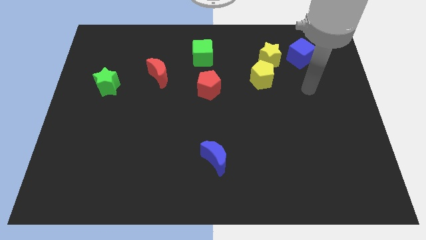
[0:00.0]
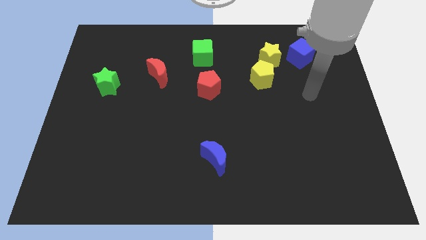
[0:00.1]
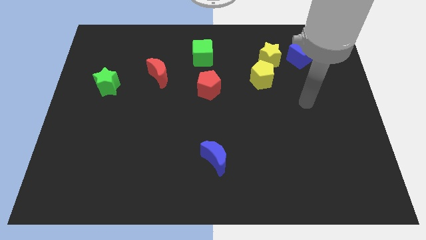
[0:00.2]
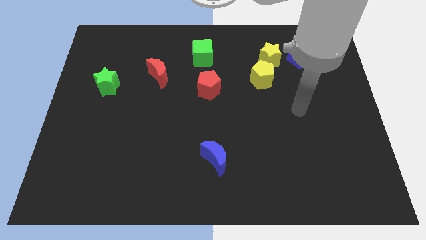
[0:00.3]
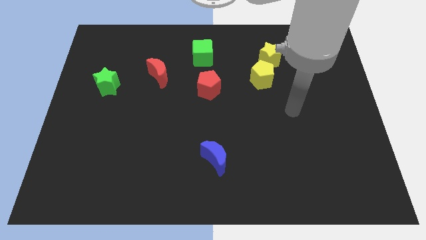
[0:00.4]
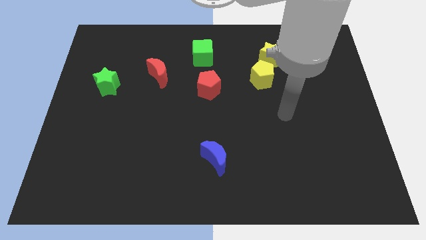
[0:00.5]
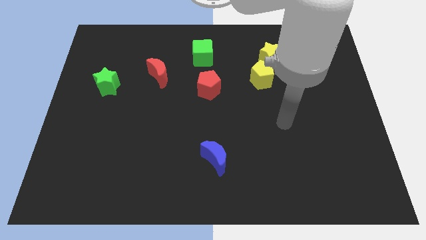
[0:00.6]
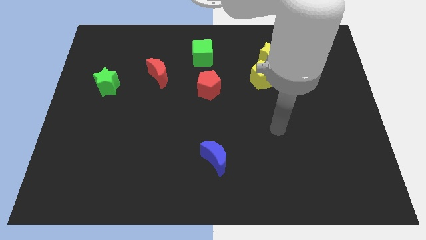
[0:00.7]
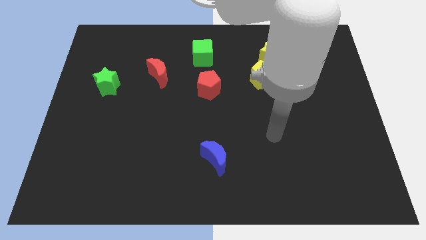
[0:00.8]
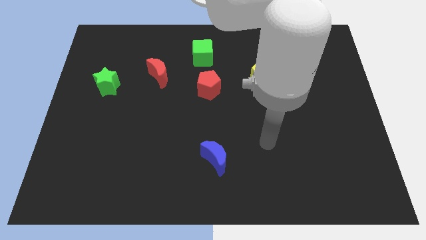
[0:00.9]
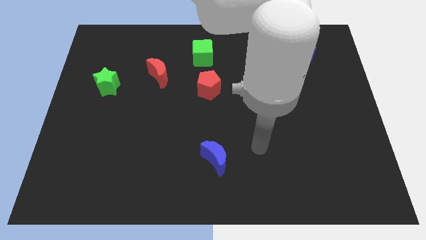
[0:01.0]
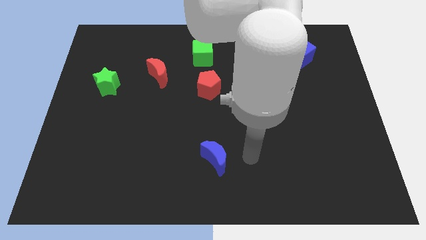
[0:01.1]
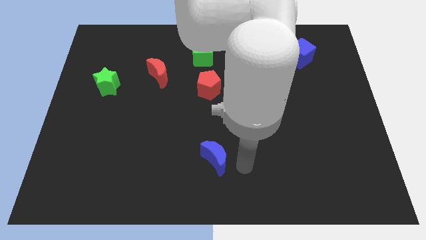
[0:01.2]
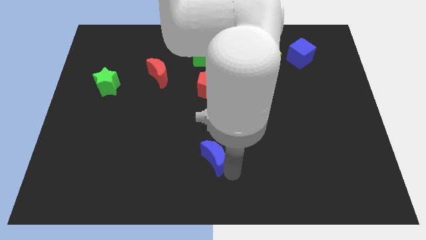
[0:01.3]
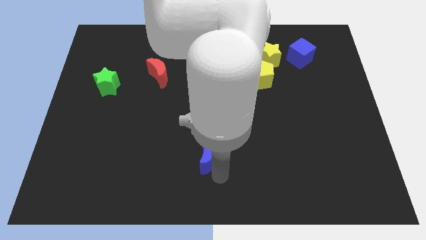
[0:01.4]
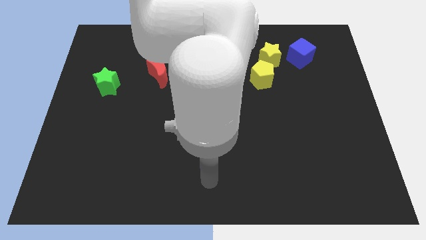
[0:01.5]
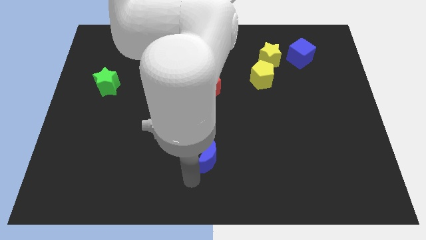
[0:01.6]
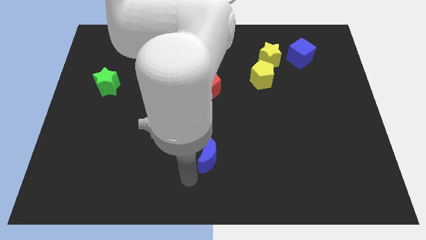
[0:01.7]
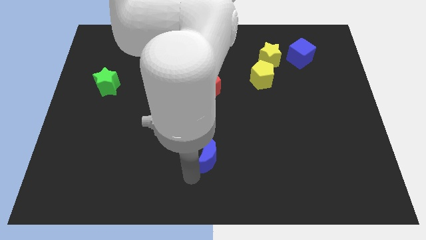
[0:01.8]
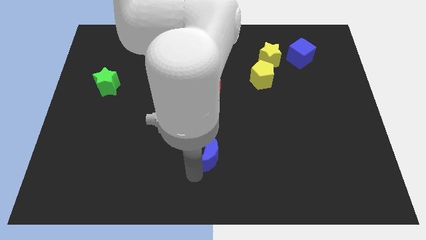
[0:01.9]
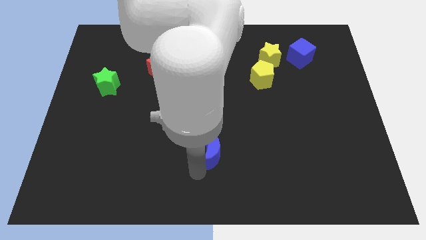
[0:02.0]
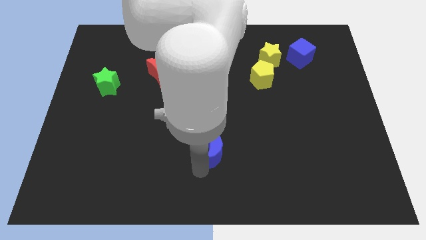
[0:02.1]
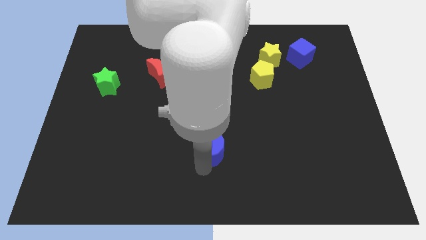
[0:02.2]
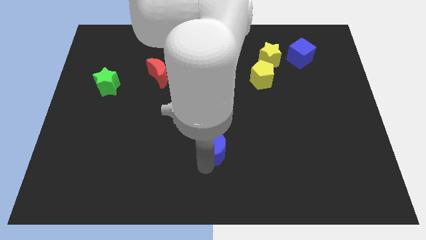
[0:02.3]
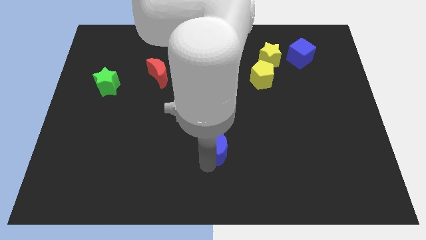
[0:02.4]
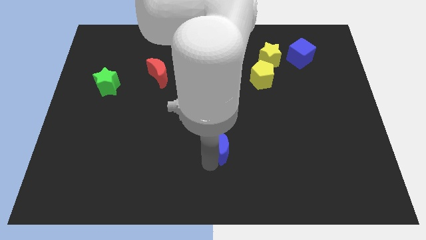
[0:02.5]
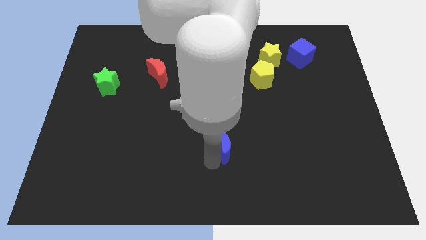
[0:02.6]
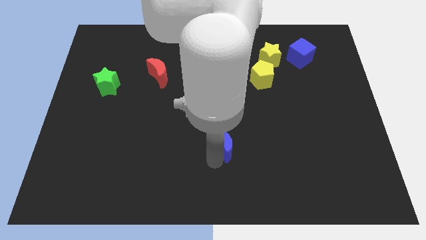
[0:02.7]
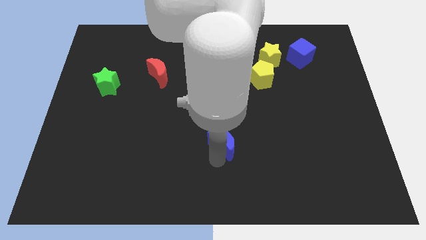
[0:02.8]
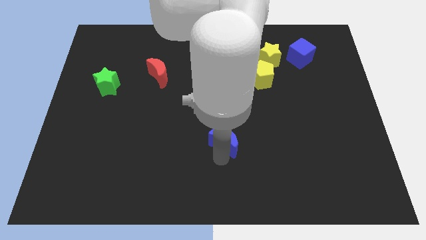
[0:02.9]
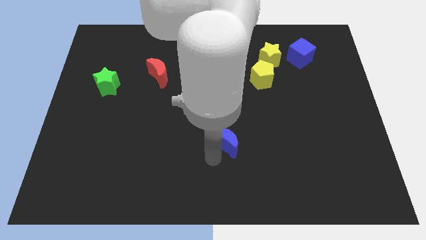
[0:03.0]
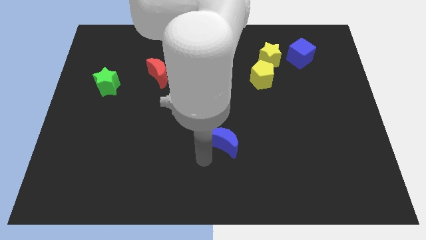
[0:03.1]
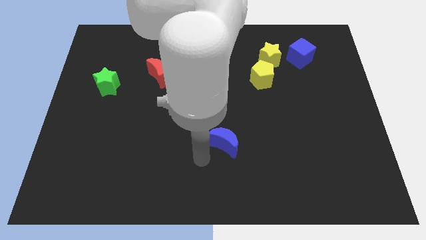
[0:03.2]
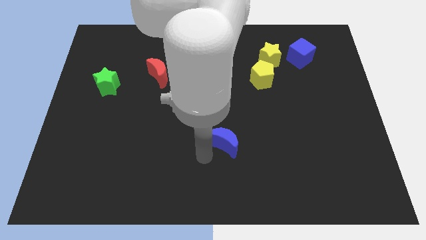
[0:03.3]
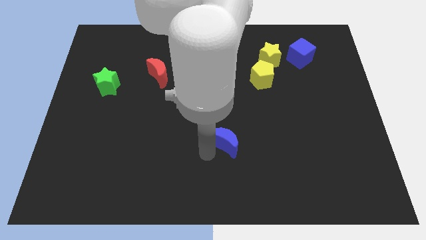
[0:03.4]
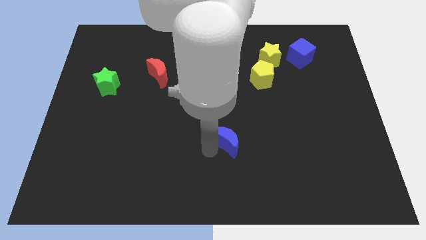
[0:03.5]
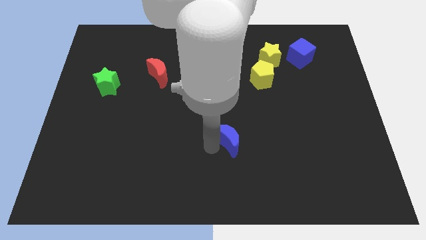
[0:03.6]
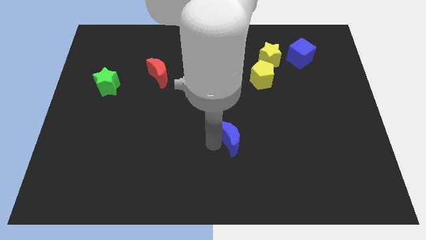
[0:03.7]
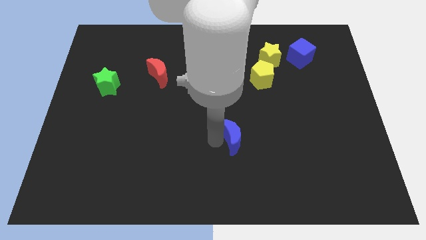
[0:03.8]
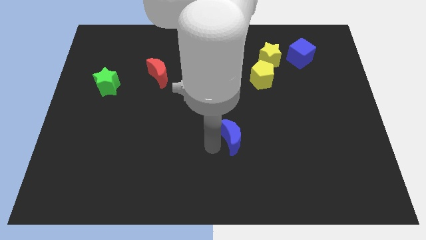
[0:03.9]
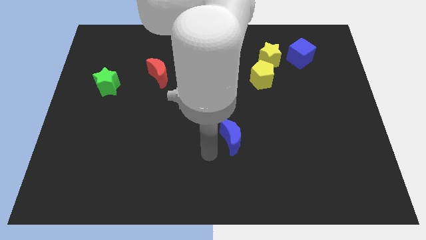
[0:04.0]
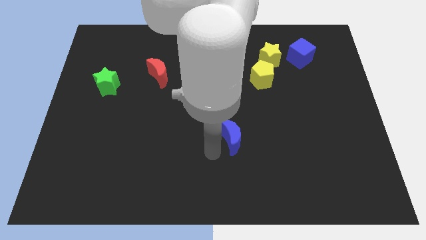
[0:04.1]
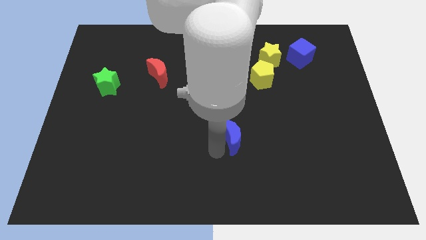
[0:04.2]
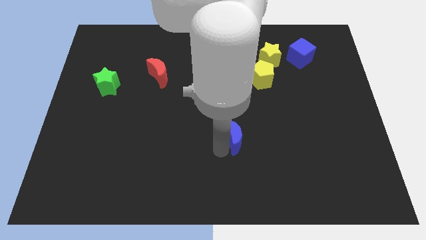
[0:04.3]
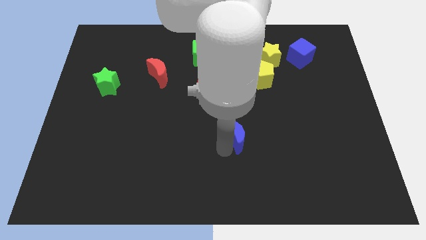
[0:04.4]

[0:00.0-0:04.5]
slightly slide the blue moon up and to the right

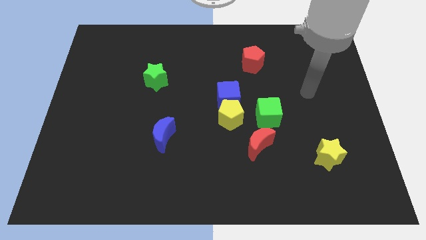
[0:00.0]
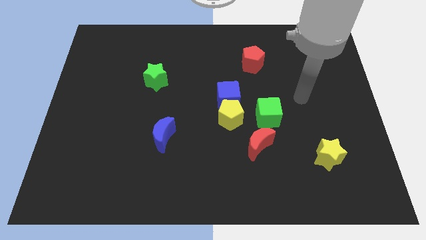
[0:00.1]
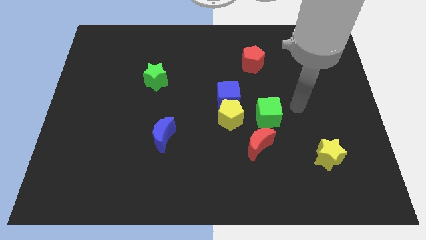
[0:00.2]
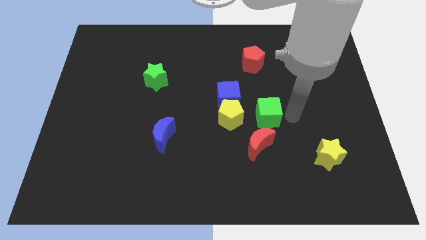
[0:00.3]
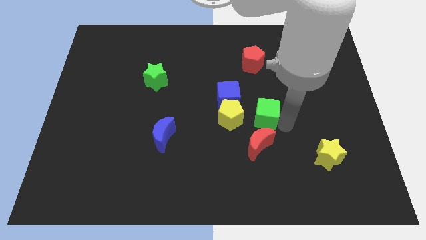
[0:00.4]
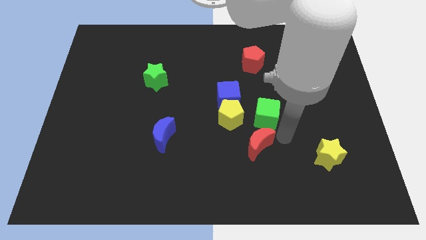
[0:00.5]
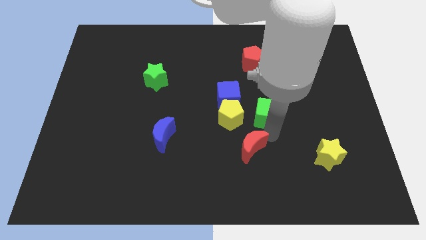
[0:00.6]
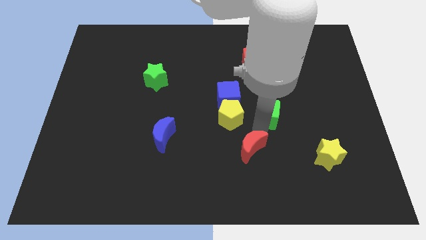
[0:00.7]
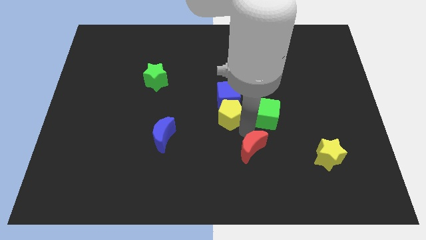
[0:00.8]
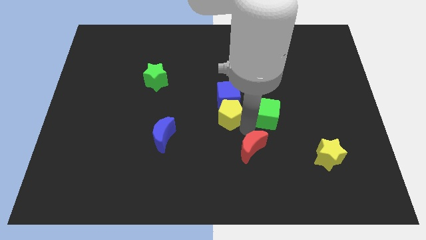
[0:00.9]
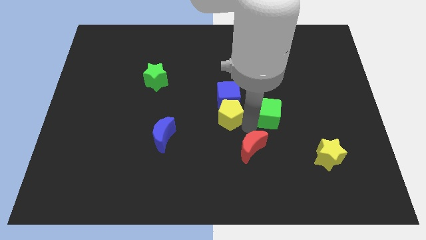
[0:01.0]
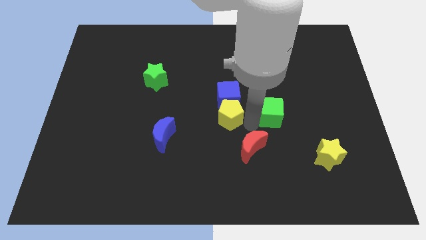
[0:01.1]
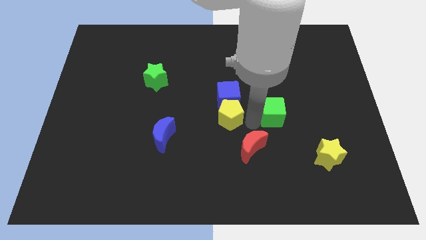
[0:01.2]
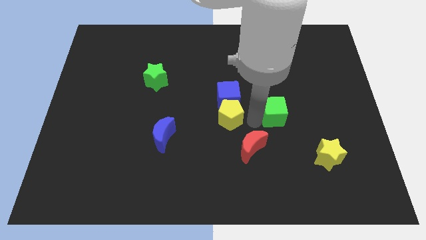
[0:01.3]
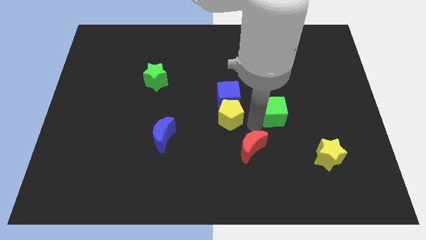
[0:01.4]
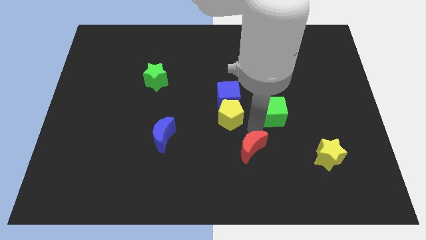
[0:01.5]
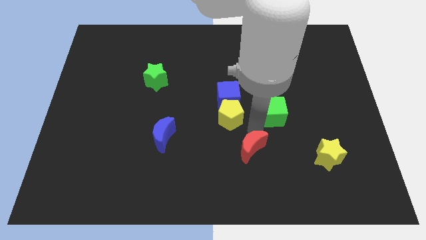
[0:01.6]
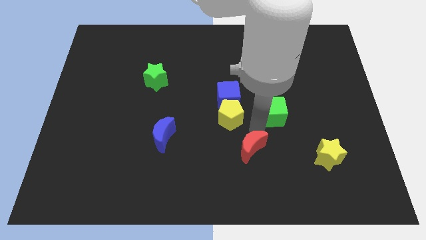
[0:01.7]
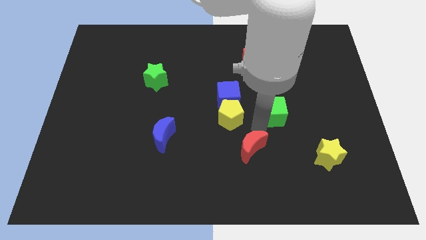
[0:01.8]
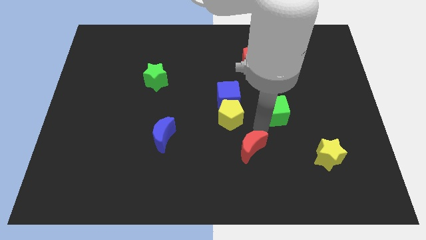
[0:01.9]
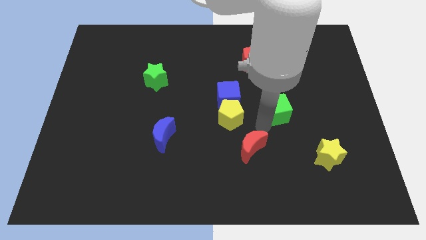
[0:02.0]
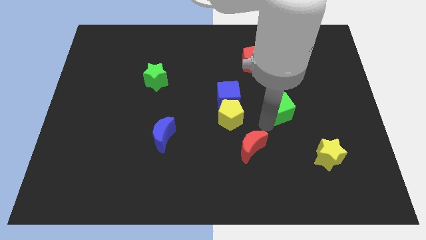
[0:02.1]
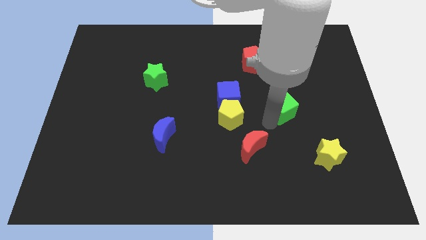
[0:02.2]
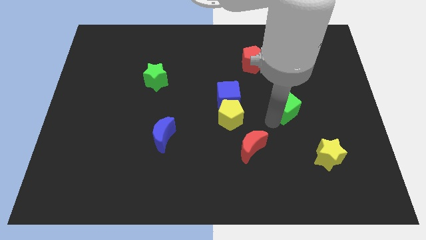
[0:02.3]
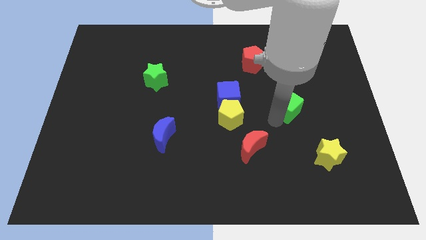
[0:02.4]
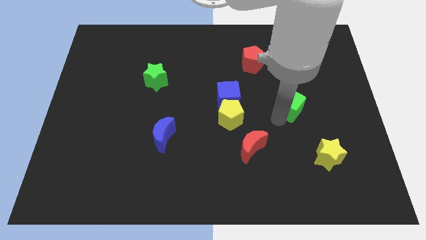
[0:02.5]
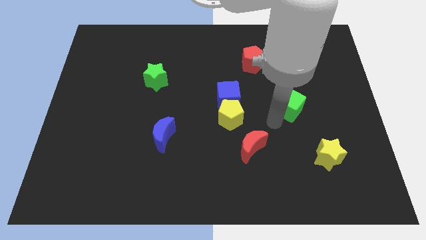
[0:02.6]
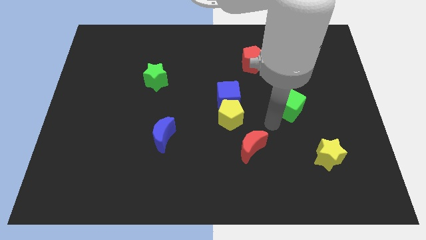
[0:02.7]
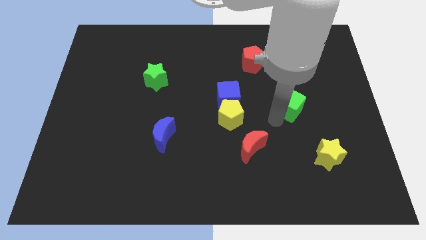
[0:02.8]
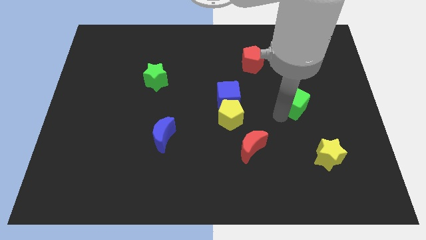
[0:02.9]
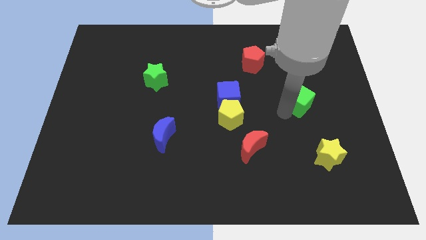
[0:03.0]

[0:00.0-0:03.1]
push the green cube somewhat upwards and then right

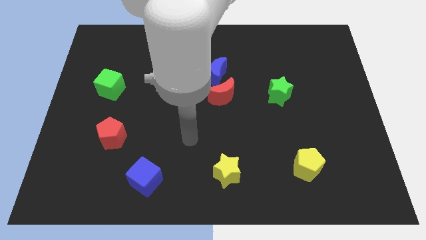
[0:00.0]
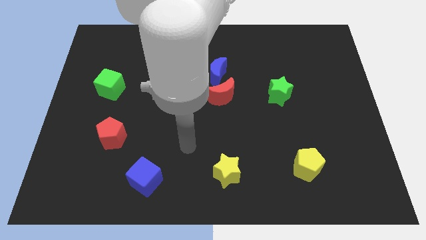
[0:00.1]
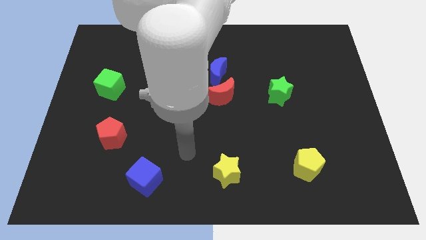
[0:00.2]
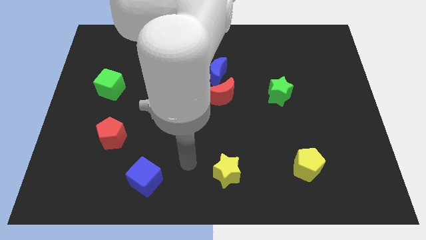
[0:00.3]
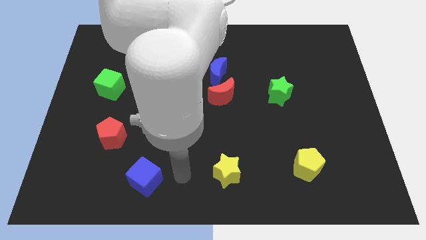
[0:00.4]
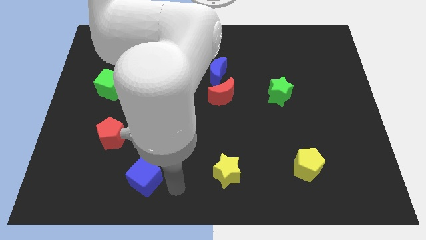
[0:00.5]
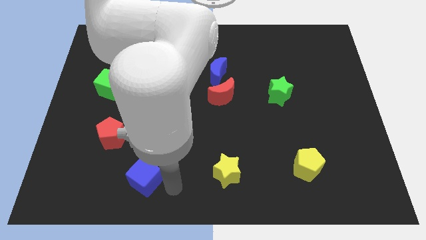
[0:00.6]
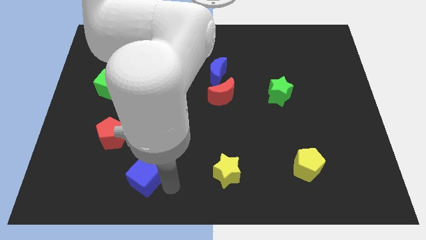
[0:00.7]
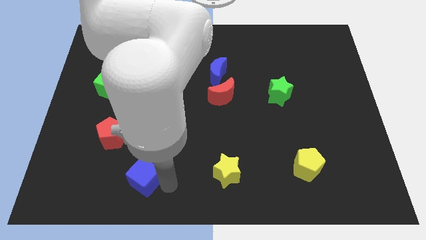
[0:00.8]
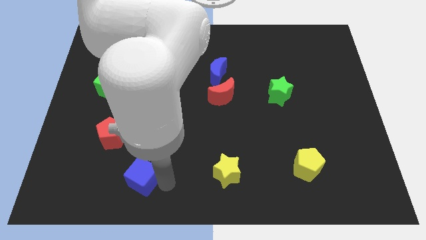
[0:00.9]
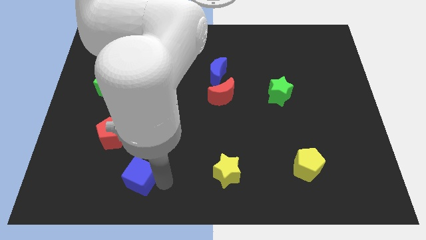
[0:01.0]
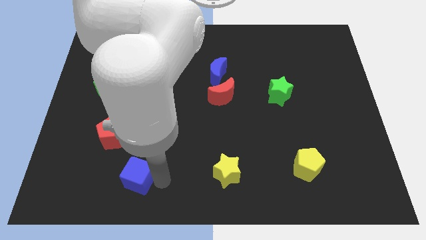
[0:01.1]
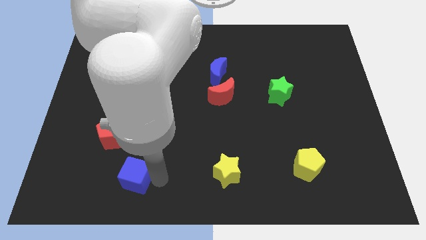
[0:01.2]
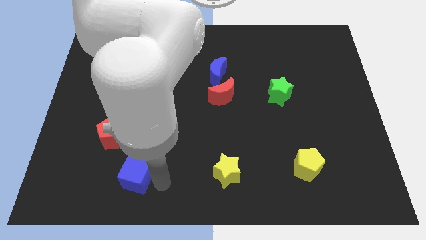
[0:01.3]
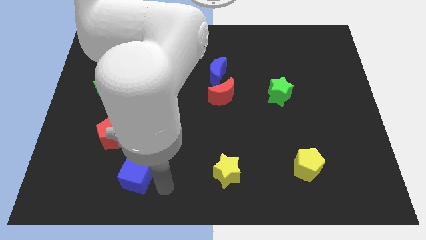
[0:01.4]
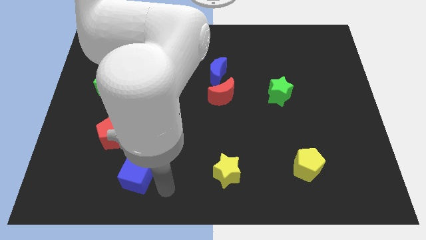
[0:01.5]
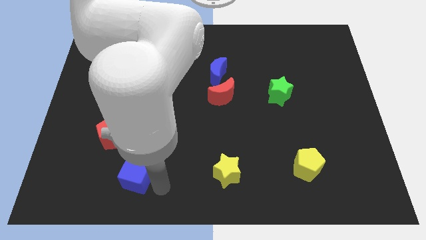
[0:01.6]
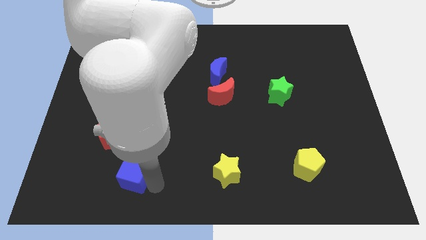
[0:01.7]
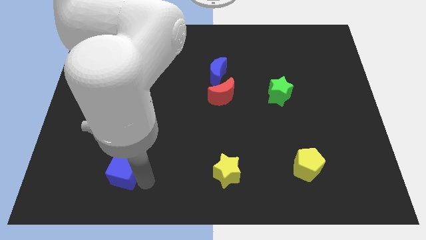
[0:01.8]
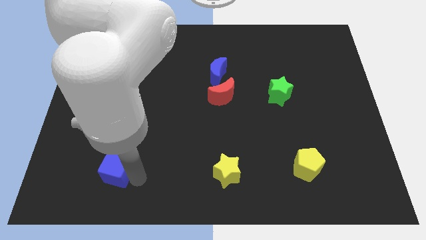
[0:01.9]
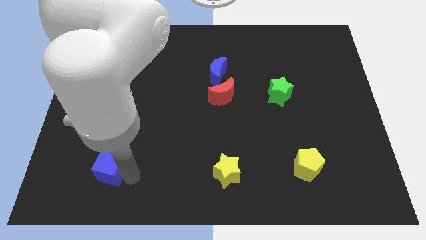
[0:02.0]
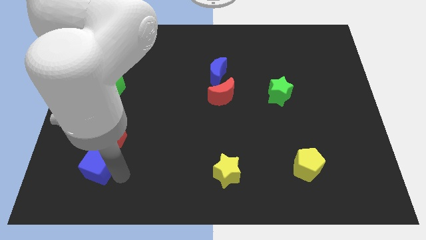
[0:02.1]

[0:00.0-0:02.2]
push the blue cube upwards and left somewhat
